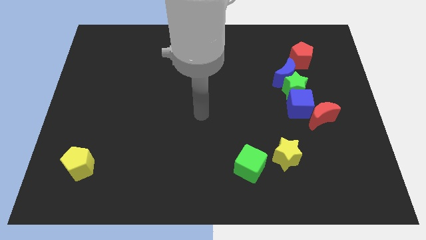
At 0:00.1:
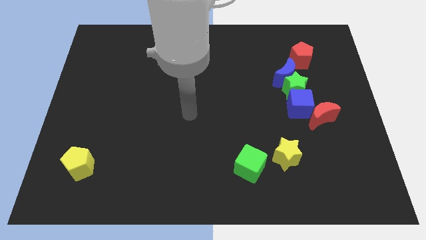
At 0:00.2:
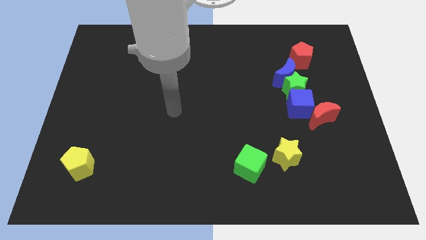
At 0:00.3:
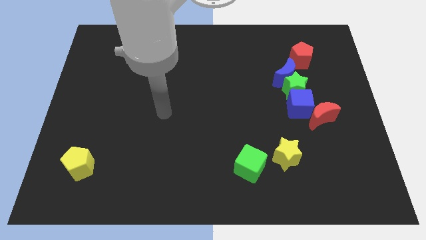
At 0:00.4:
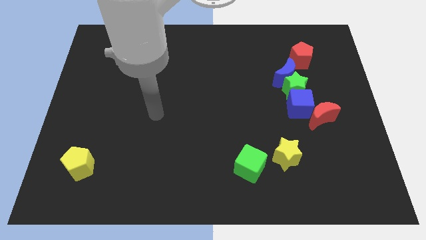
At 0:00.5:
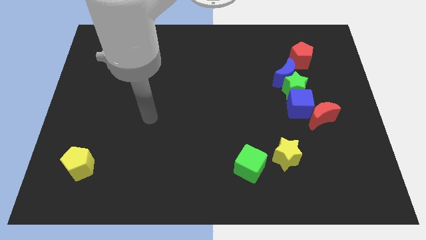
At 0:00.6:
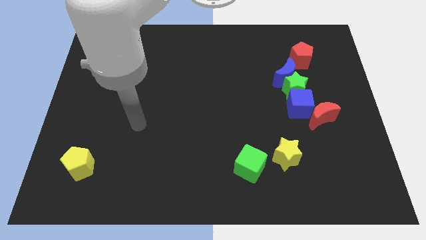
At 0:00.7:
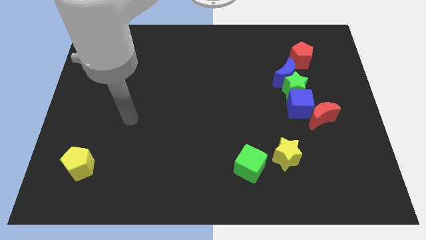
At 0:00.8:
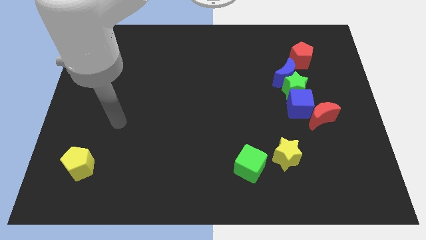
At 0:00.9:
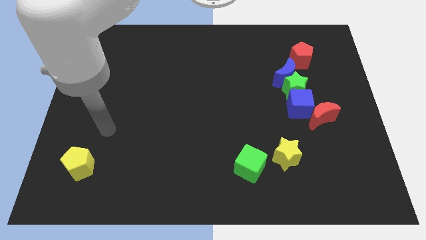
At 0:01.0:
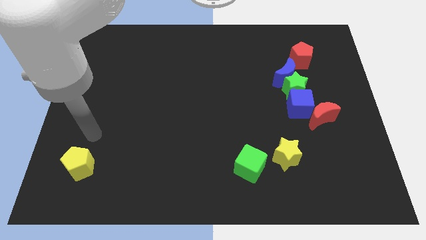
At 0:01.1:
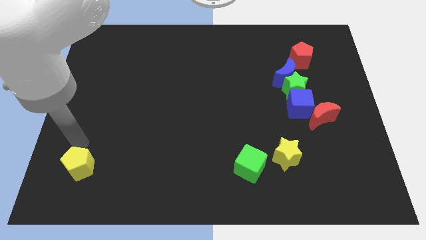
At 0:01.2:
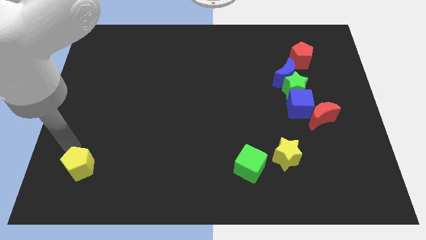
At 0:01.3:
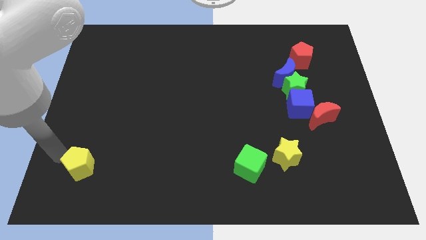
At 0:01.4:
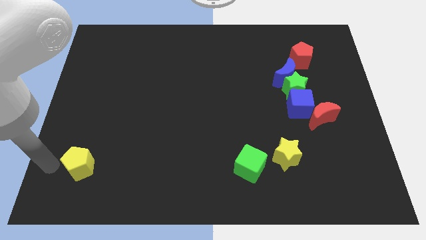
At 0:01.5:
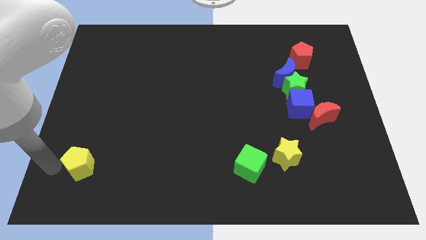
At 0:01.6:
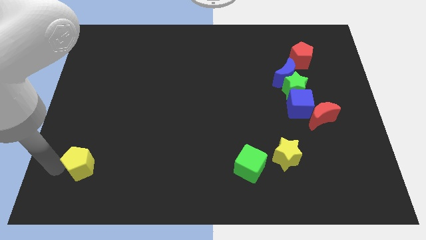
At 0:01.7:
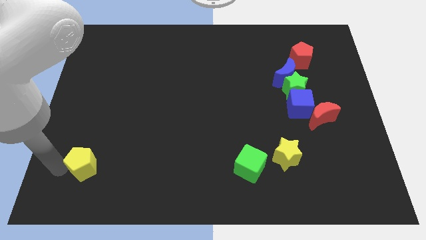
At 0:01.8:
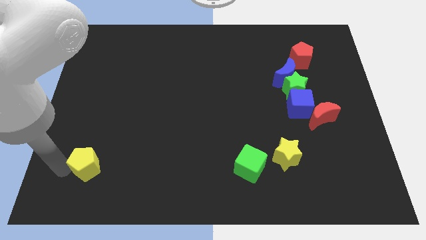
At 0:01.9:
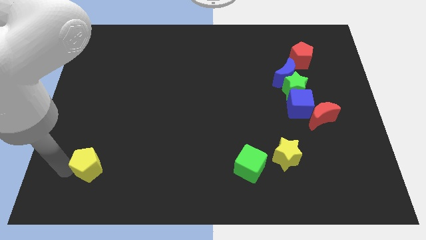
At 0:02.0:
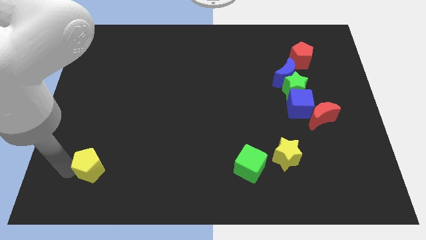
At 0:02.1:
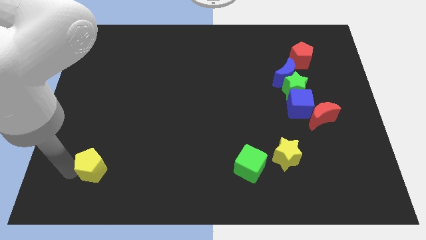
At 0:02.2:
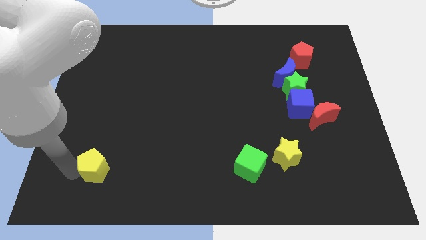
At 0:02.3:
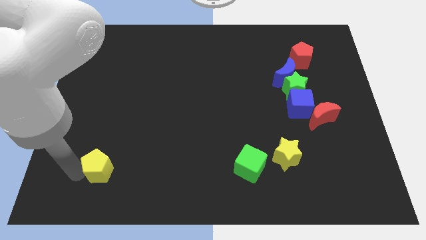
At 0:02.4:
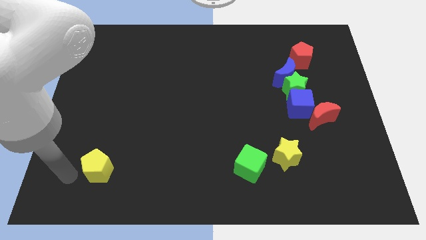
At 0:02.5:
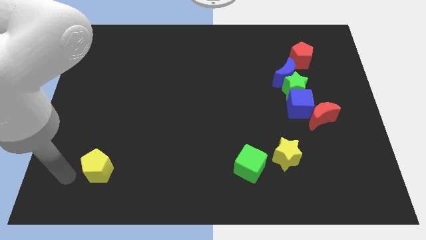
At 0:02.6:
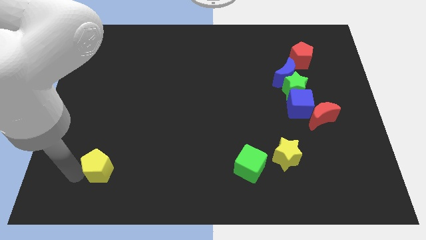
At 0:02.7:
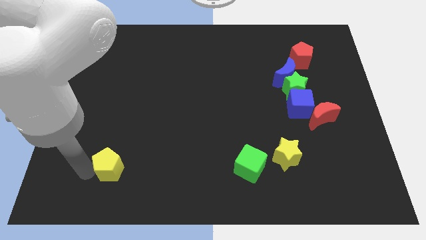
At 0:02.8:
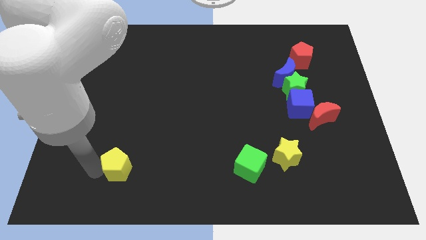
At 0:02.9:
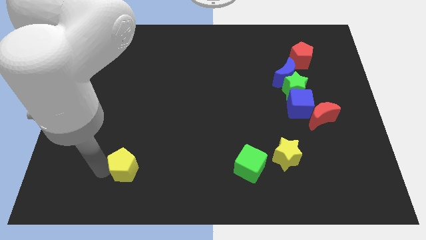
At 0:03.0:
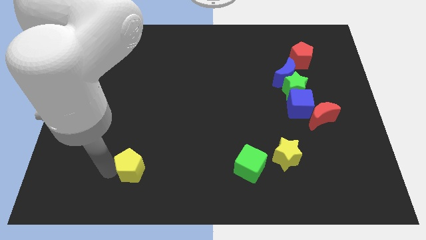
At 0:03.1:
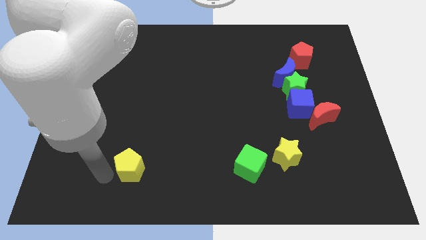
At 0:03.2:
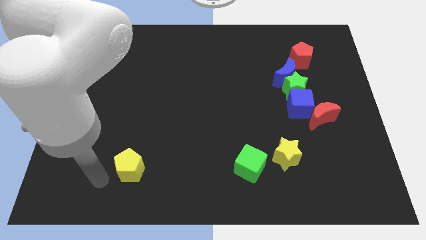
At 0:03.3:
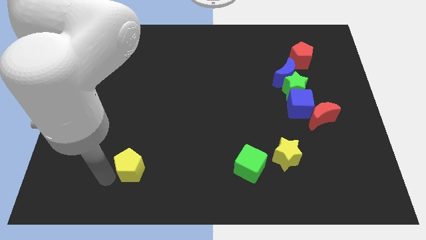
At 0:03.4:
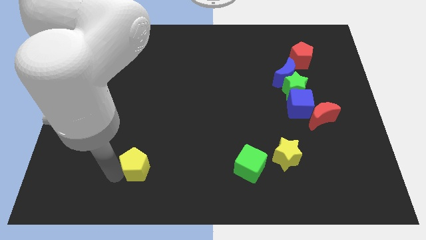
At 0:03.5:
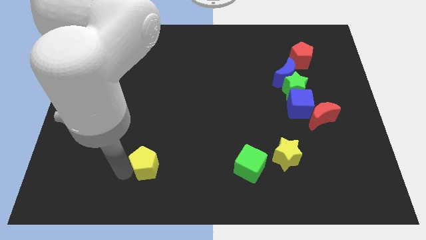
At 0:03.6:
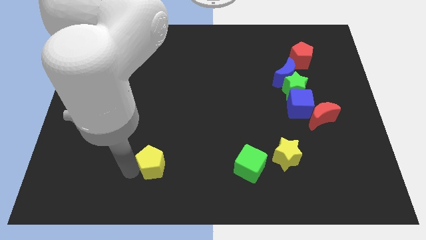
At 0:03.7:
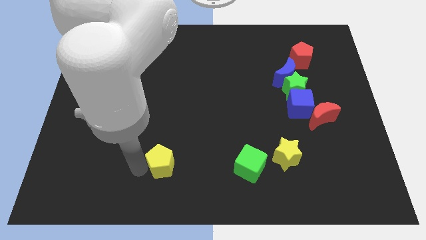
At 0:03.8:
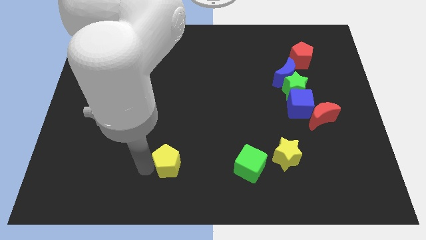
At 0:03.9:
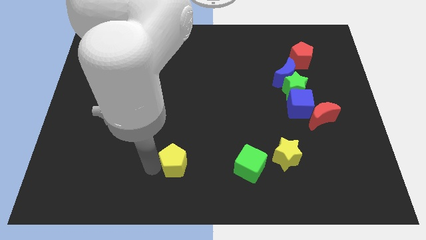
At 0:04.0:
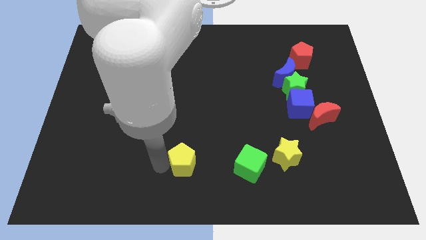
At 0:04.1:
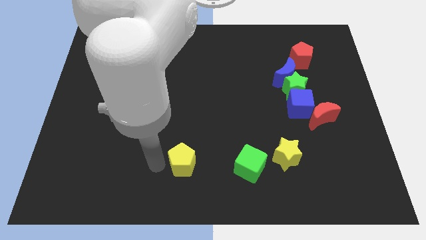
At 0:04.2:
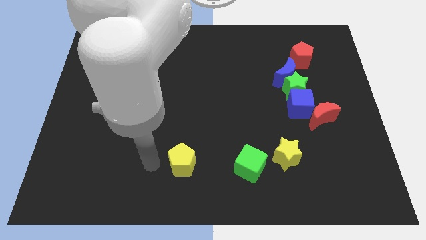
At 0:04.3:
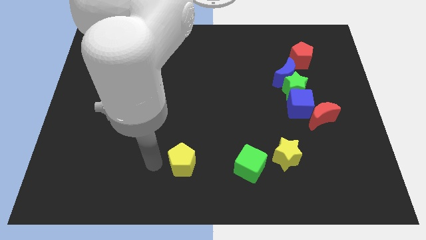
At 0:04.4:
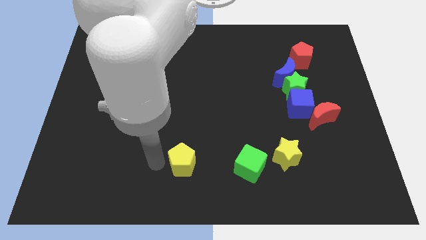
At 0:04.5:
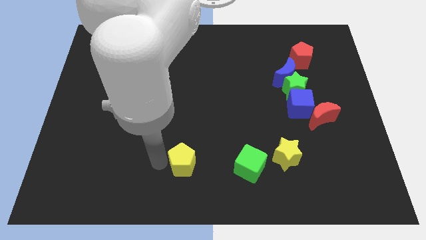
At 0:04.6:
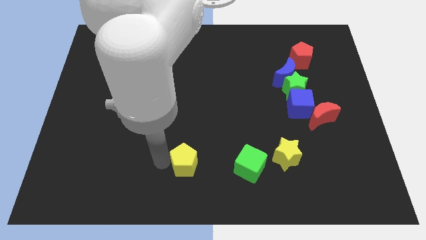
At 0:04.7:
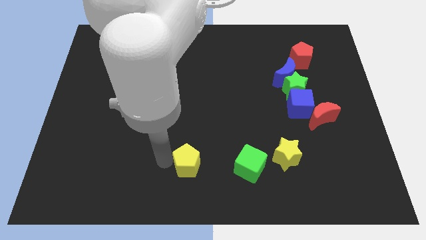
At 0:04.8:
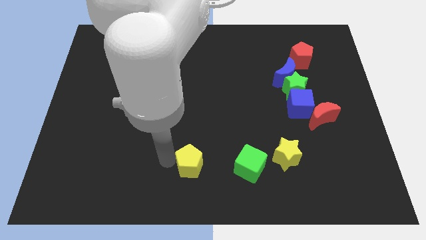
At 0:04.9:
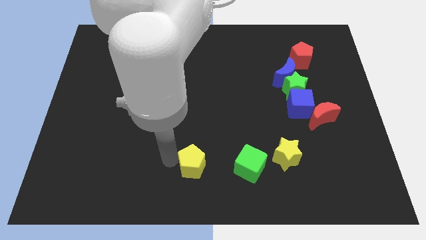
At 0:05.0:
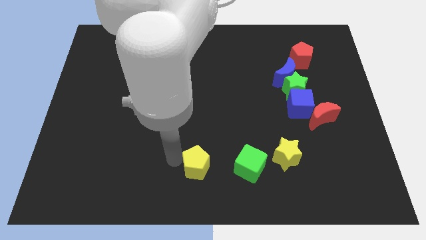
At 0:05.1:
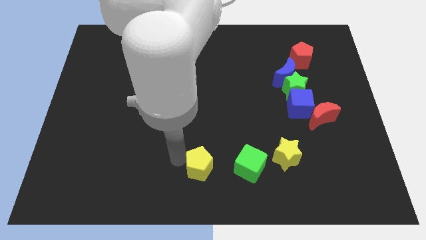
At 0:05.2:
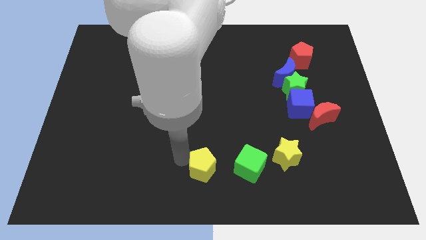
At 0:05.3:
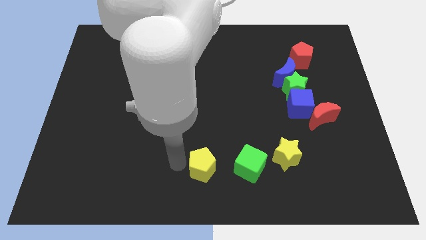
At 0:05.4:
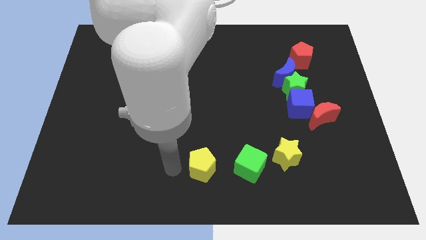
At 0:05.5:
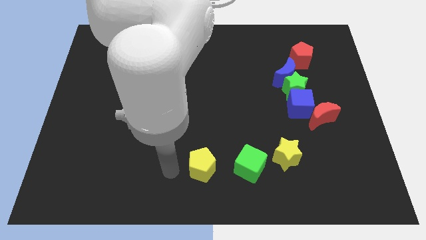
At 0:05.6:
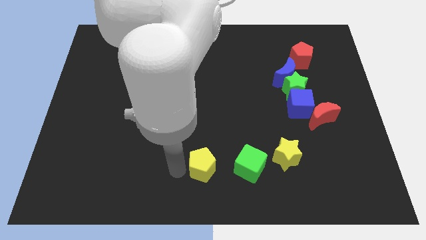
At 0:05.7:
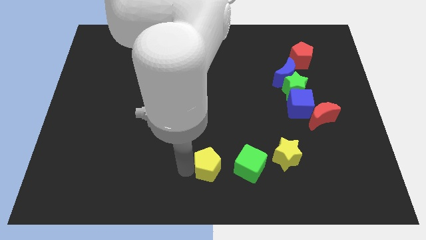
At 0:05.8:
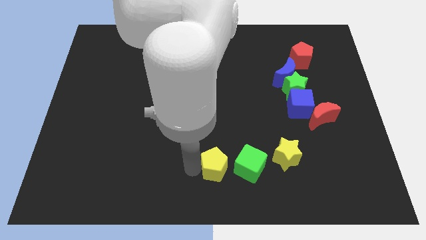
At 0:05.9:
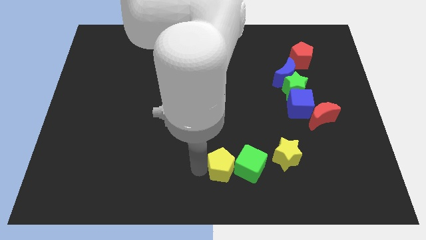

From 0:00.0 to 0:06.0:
move the yellow pentagon close to the green cube

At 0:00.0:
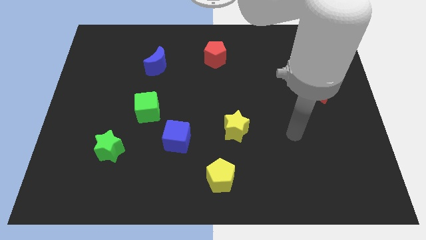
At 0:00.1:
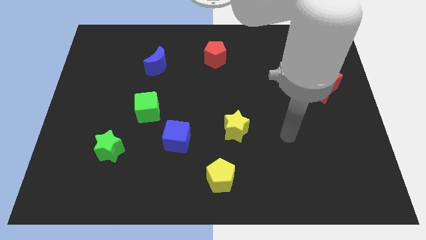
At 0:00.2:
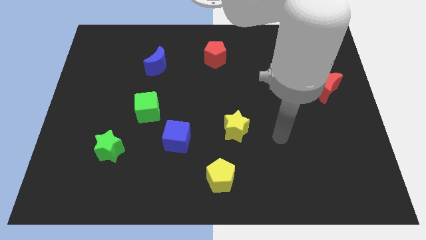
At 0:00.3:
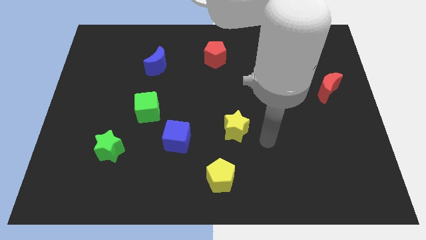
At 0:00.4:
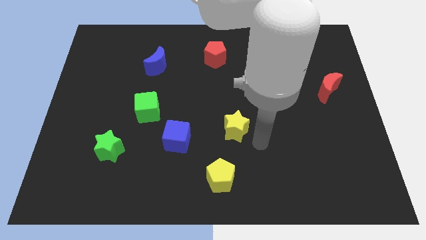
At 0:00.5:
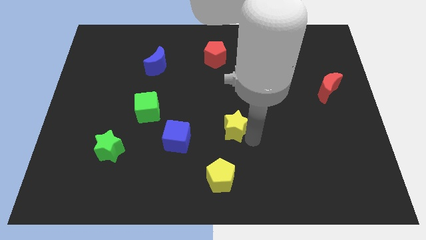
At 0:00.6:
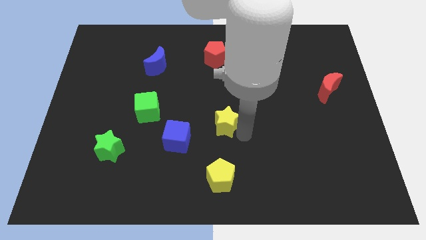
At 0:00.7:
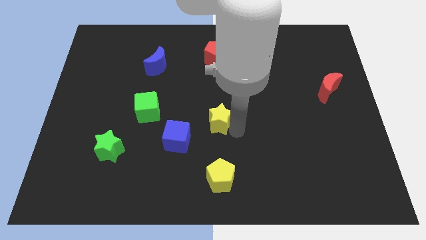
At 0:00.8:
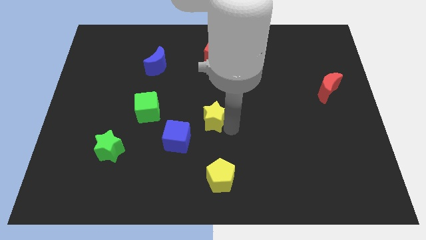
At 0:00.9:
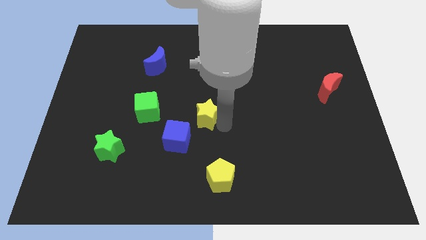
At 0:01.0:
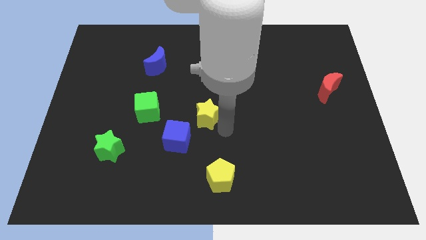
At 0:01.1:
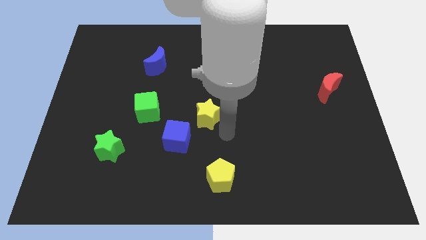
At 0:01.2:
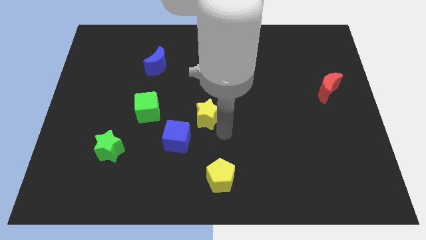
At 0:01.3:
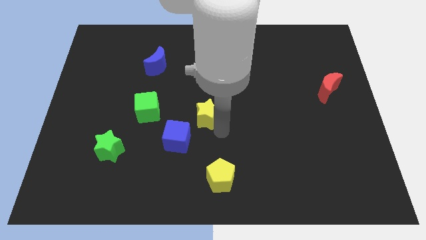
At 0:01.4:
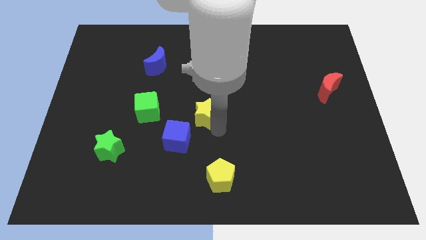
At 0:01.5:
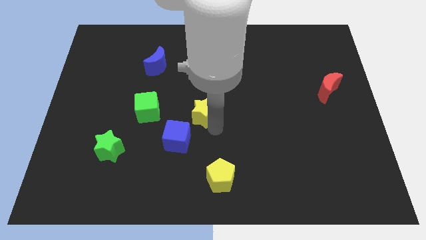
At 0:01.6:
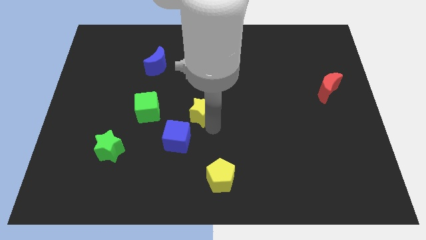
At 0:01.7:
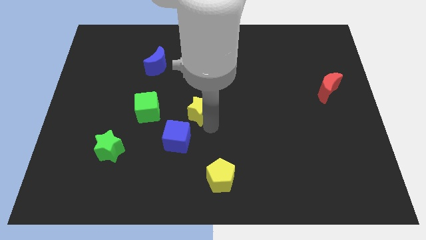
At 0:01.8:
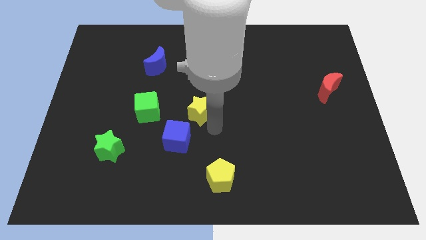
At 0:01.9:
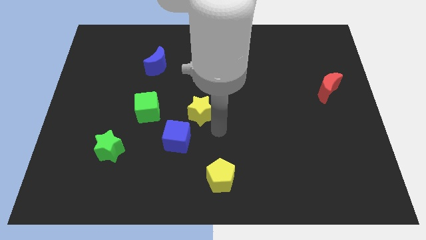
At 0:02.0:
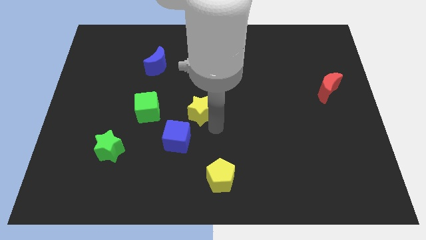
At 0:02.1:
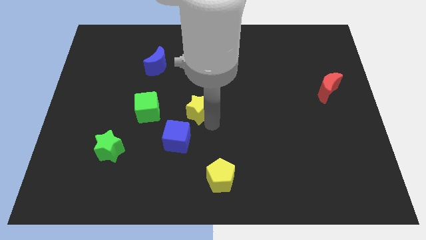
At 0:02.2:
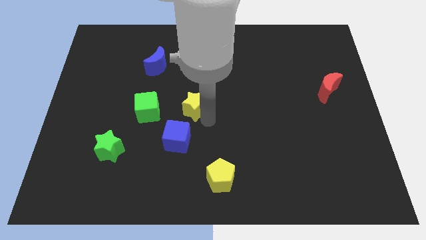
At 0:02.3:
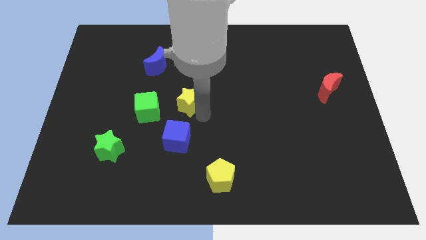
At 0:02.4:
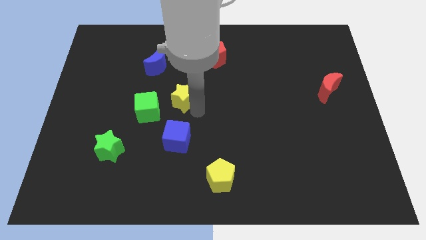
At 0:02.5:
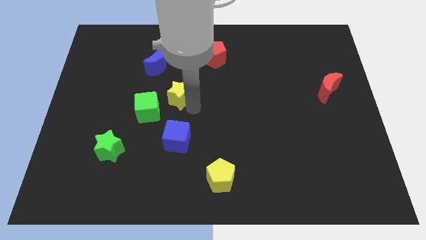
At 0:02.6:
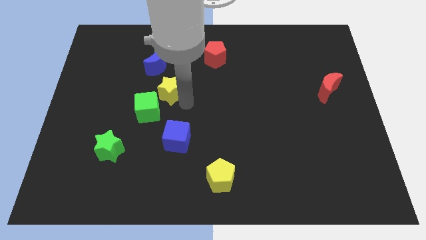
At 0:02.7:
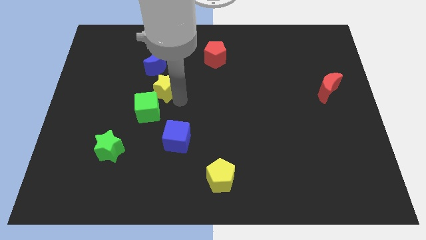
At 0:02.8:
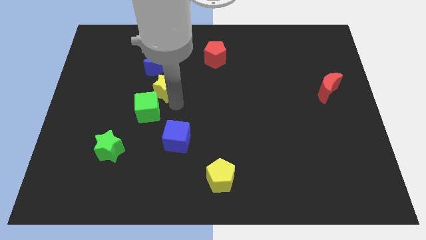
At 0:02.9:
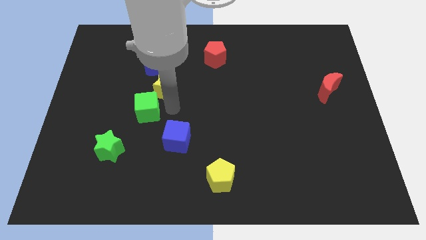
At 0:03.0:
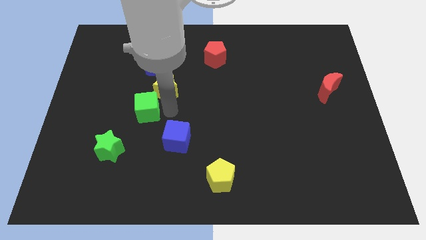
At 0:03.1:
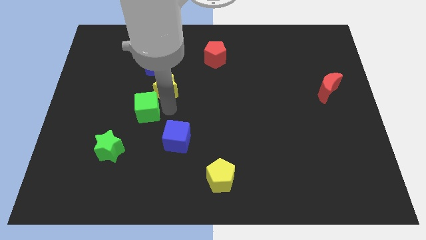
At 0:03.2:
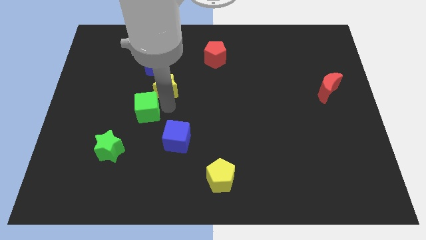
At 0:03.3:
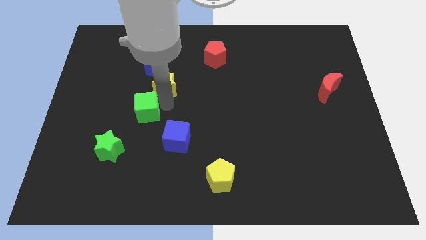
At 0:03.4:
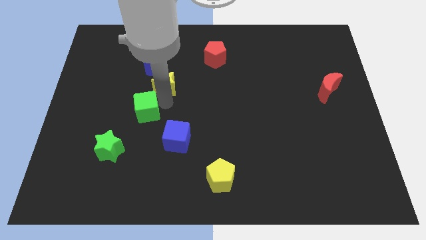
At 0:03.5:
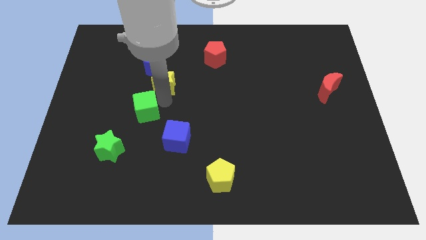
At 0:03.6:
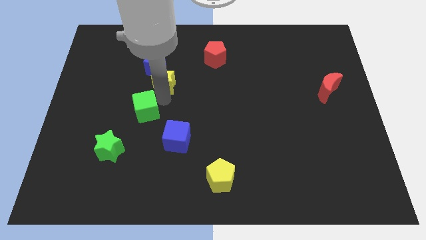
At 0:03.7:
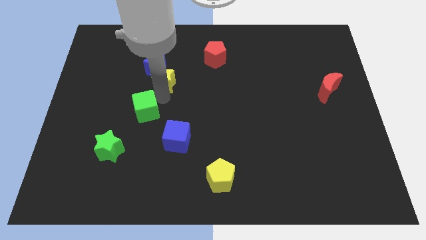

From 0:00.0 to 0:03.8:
push the yellow star towards the blue moon
